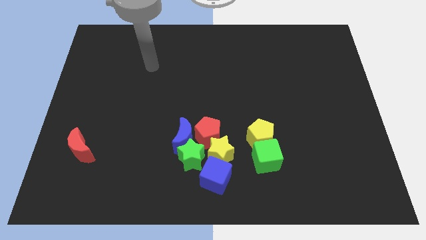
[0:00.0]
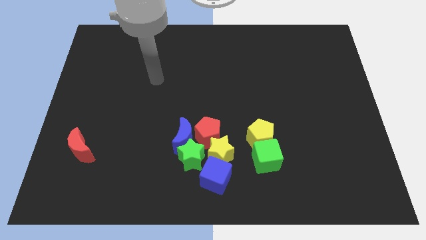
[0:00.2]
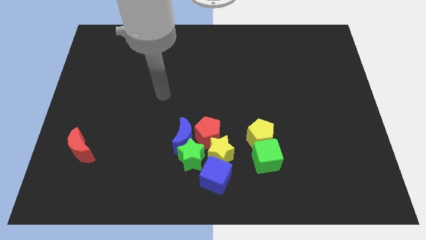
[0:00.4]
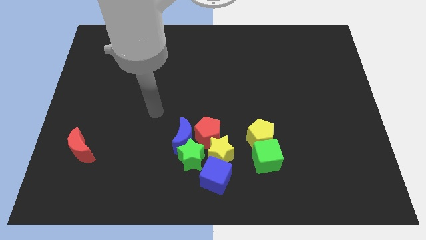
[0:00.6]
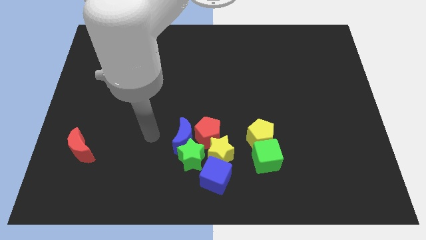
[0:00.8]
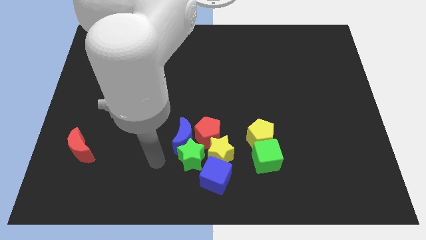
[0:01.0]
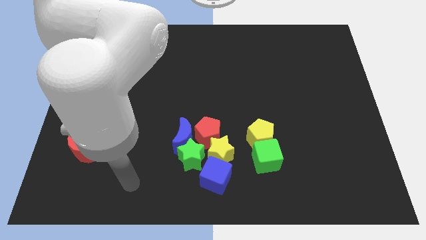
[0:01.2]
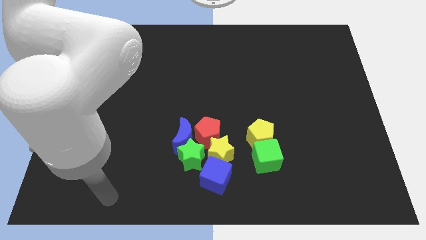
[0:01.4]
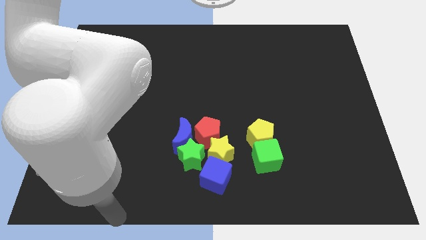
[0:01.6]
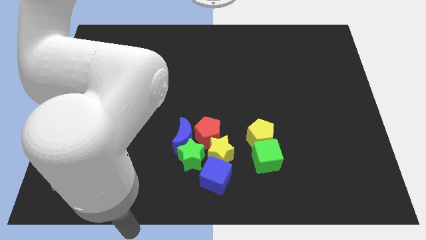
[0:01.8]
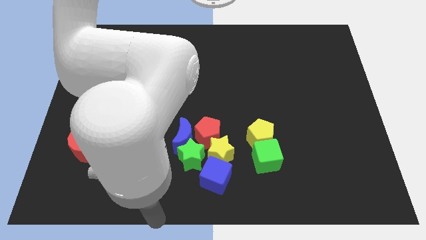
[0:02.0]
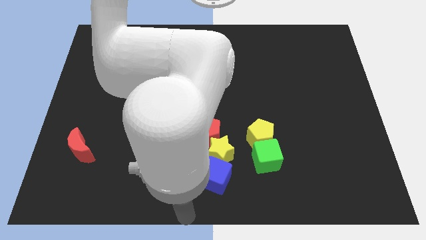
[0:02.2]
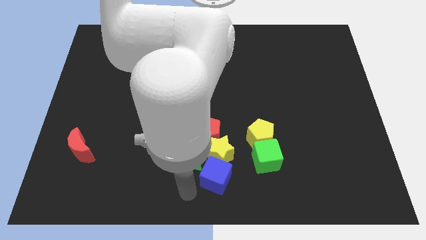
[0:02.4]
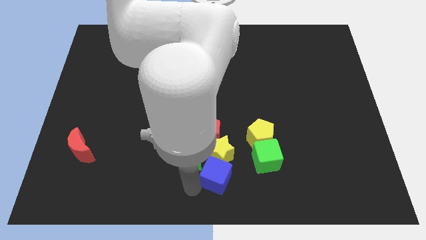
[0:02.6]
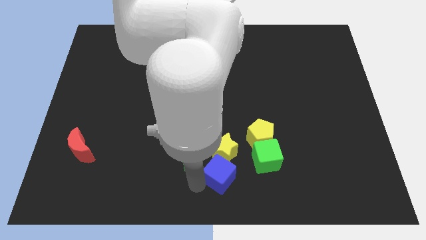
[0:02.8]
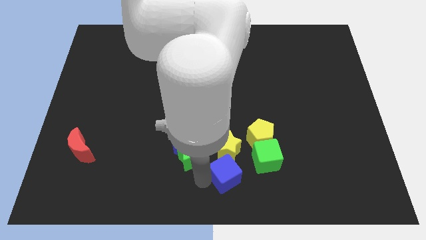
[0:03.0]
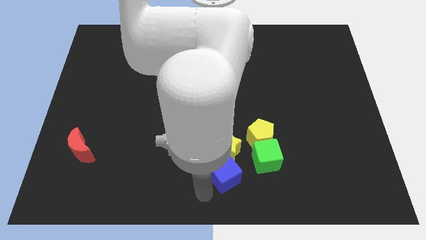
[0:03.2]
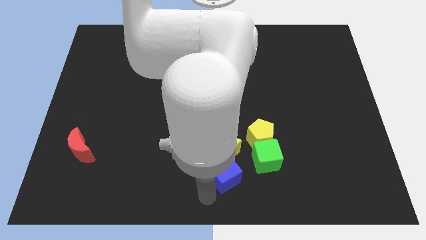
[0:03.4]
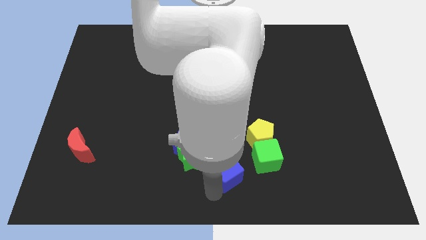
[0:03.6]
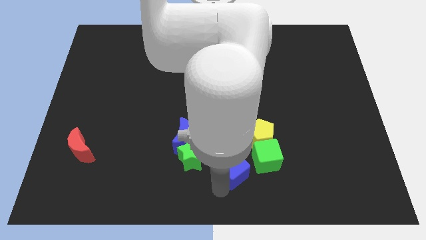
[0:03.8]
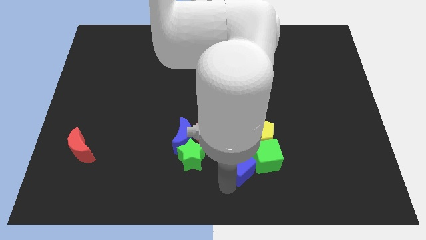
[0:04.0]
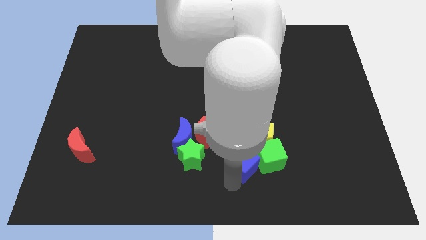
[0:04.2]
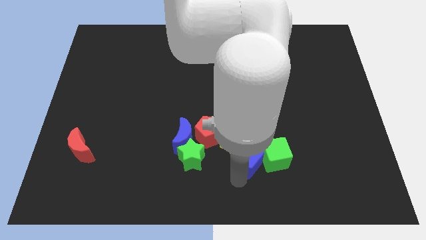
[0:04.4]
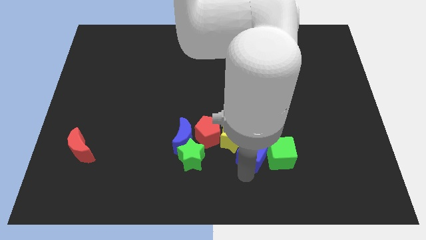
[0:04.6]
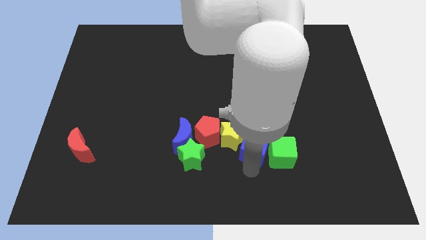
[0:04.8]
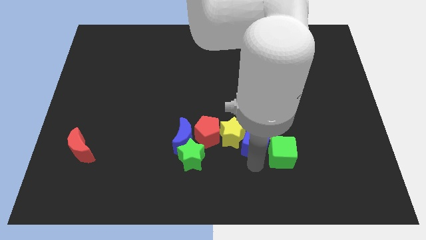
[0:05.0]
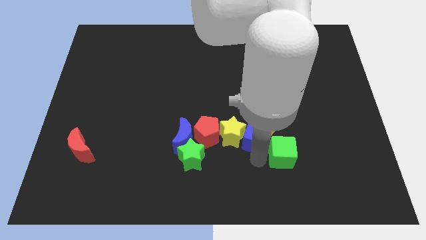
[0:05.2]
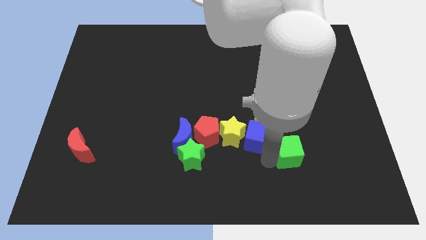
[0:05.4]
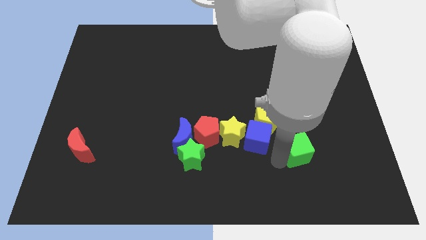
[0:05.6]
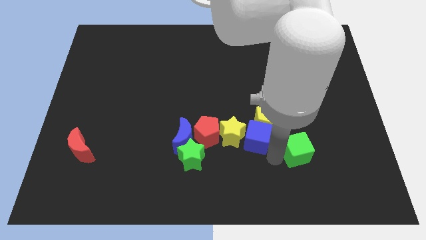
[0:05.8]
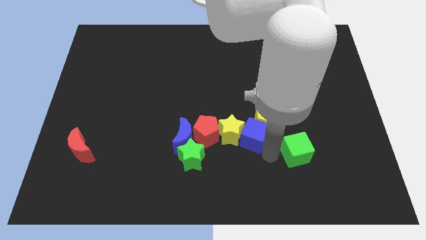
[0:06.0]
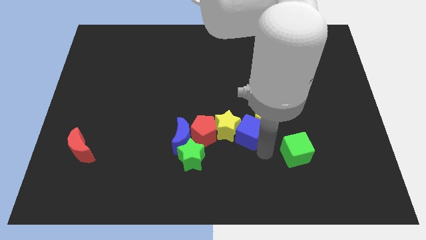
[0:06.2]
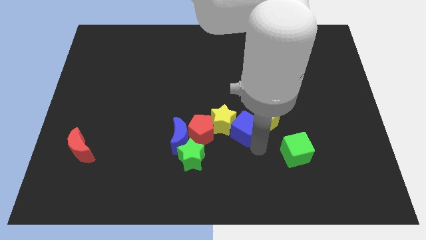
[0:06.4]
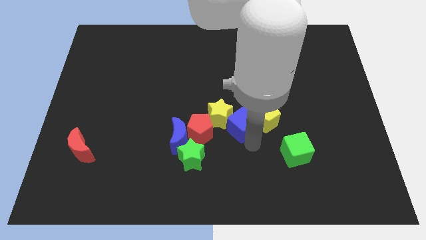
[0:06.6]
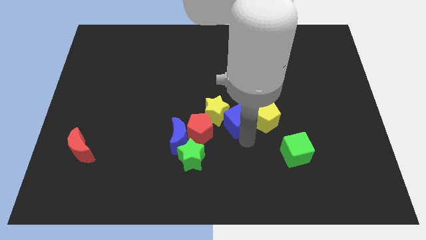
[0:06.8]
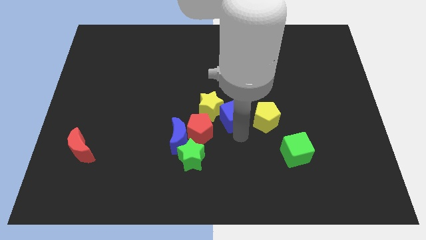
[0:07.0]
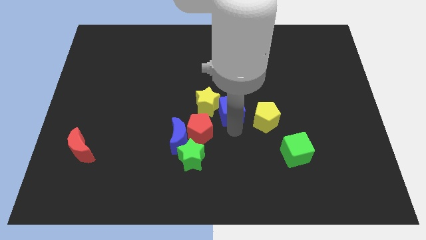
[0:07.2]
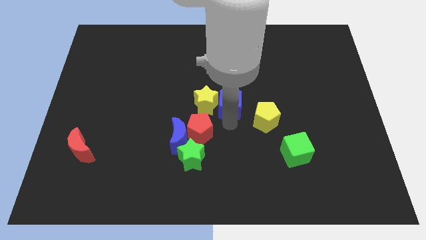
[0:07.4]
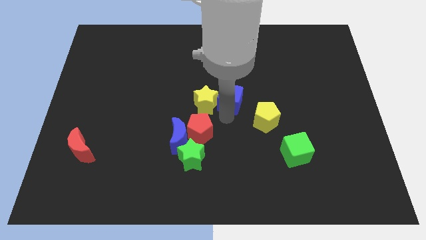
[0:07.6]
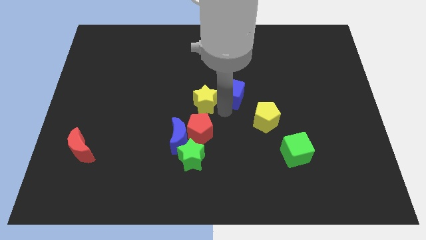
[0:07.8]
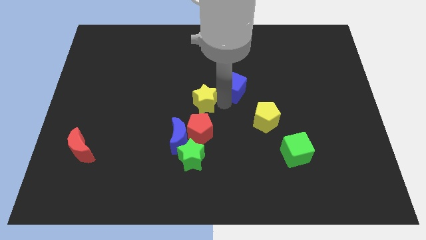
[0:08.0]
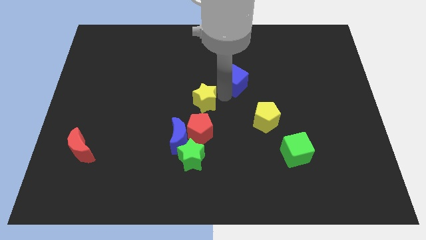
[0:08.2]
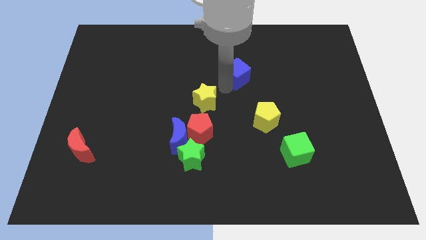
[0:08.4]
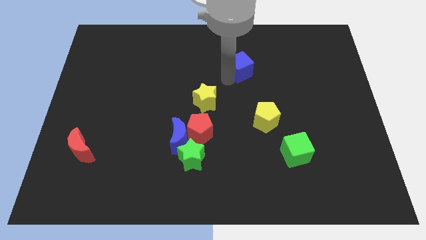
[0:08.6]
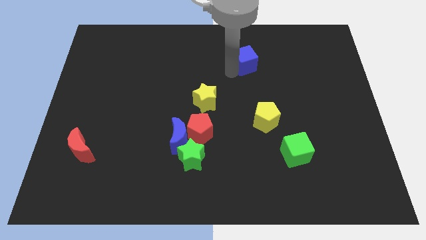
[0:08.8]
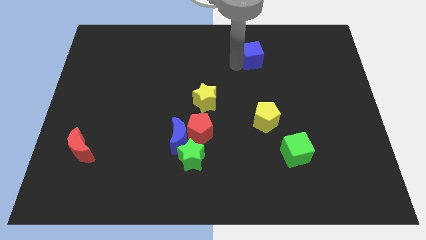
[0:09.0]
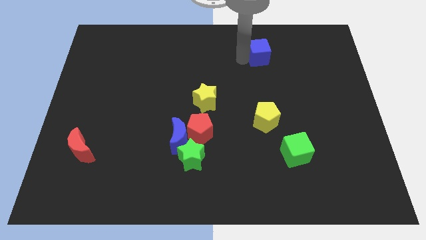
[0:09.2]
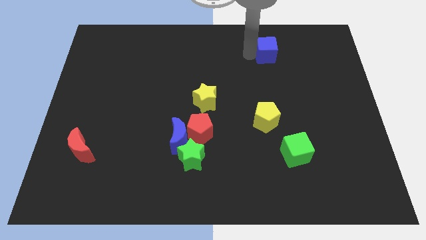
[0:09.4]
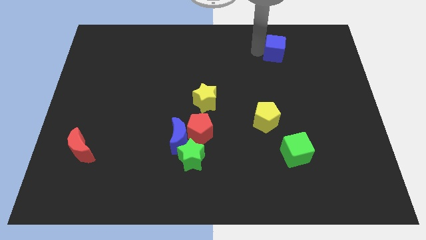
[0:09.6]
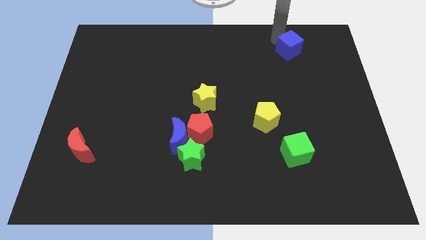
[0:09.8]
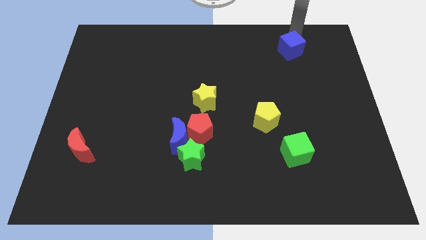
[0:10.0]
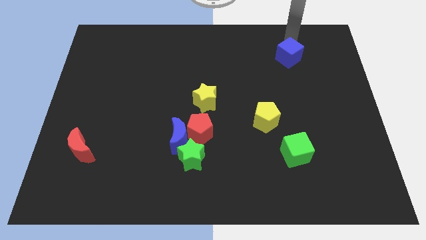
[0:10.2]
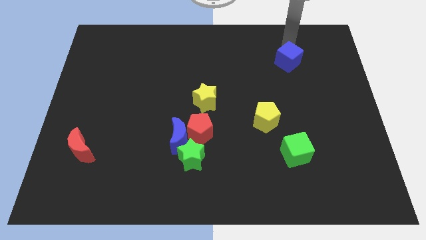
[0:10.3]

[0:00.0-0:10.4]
slide the blue cube up and then right

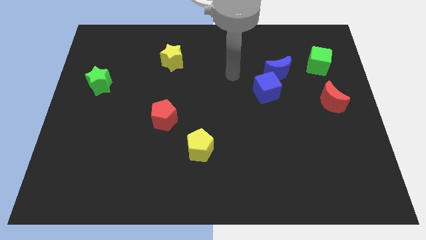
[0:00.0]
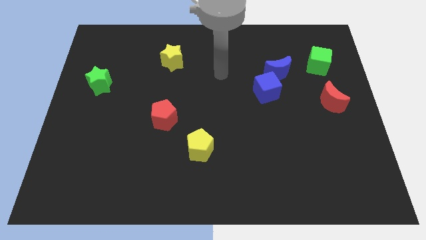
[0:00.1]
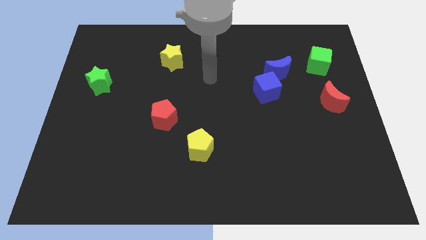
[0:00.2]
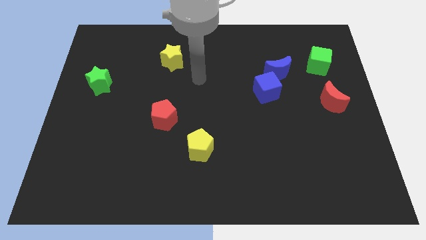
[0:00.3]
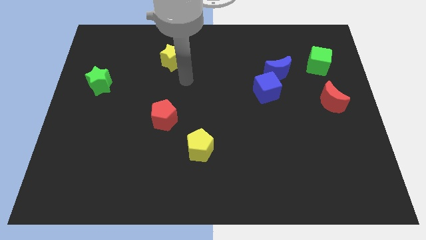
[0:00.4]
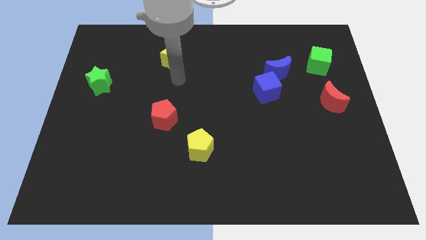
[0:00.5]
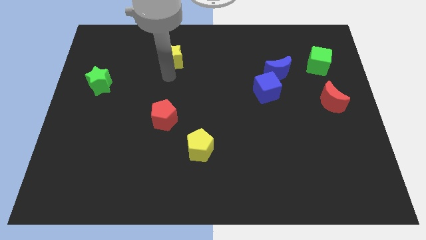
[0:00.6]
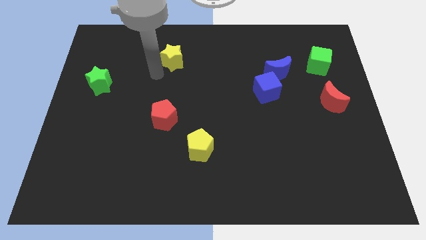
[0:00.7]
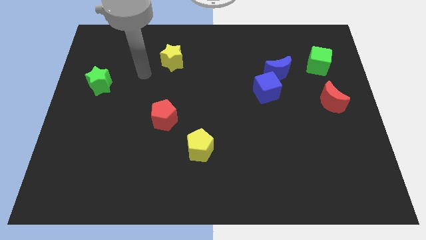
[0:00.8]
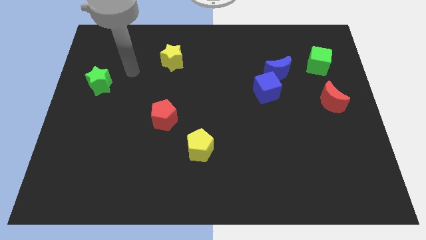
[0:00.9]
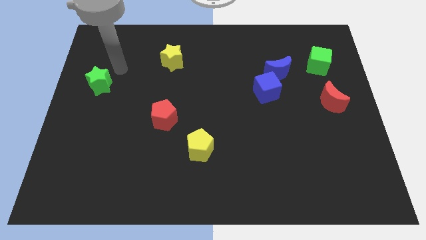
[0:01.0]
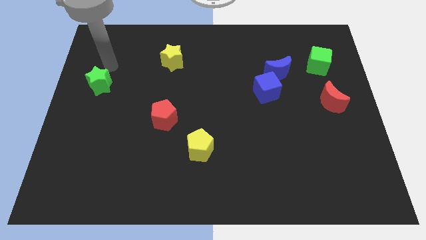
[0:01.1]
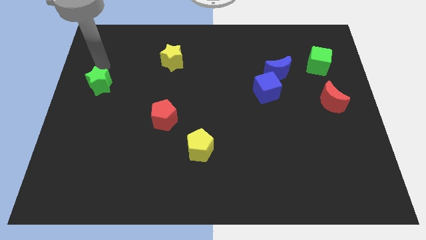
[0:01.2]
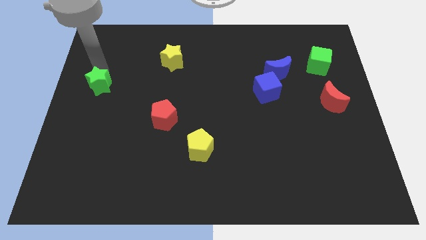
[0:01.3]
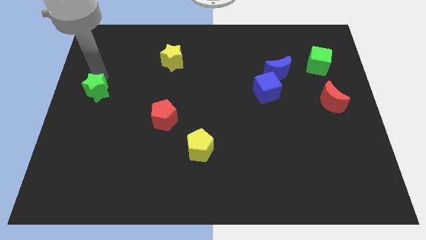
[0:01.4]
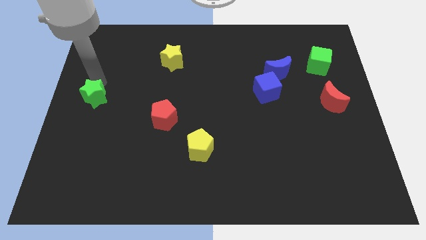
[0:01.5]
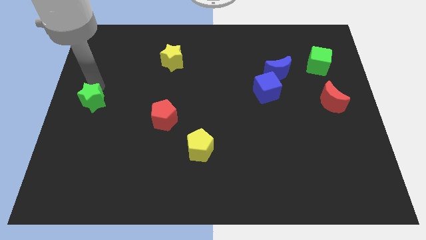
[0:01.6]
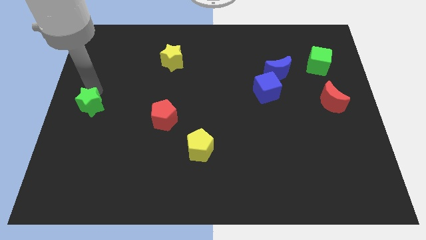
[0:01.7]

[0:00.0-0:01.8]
move the green star down a little

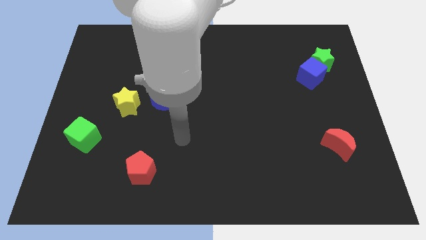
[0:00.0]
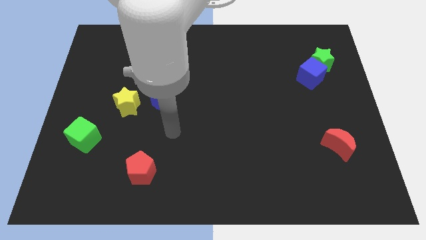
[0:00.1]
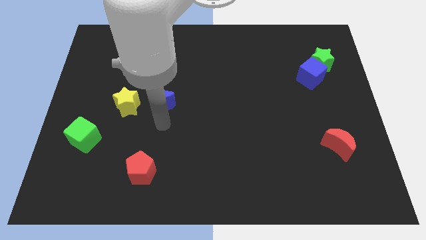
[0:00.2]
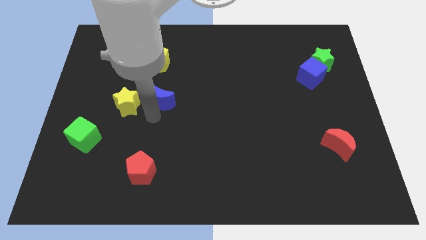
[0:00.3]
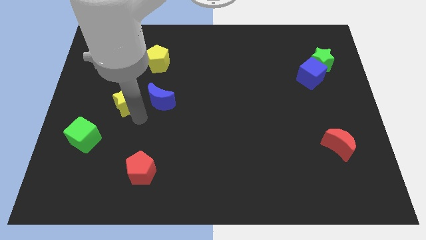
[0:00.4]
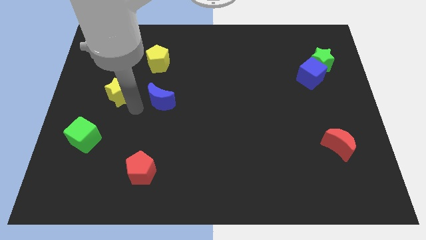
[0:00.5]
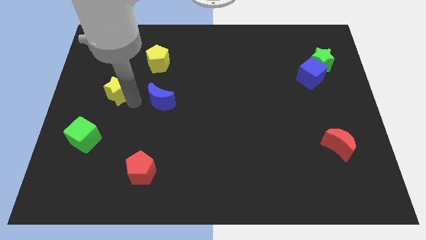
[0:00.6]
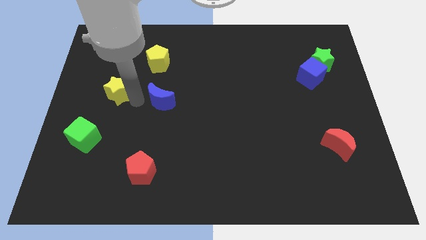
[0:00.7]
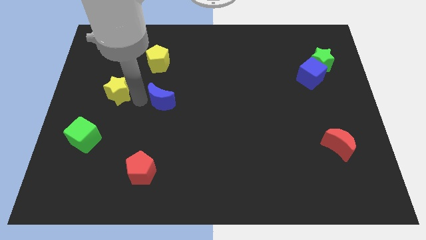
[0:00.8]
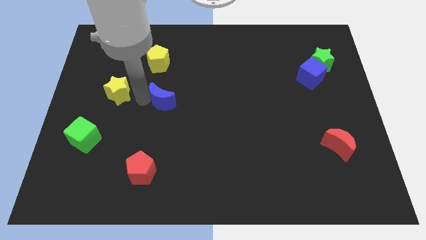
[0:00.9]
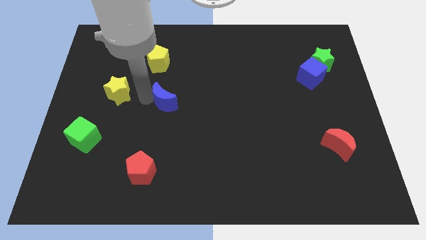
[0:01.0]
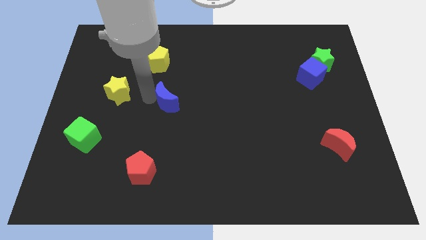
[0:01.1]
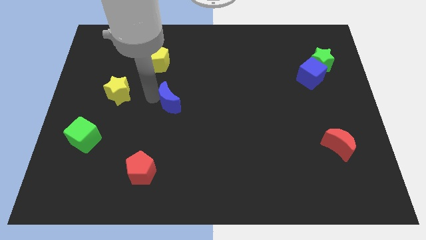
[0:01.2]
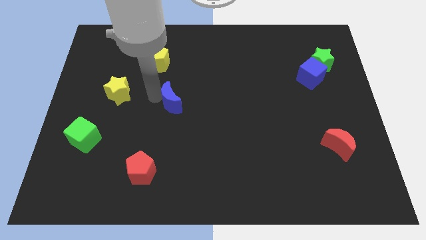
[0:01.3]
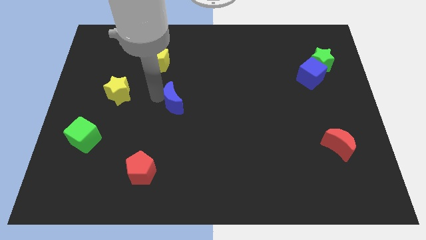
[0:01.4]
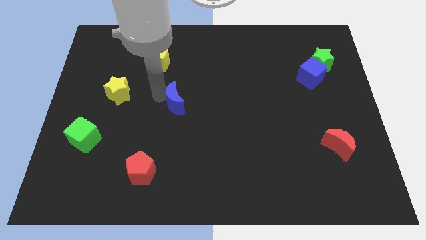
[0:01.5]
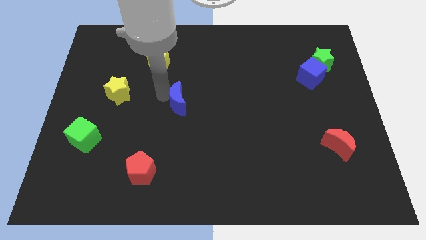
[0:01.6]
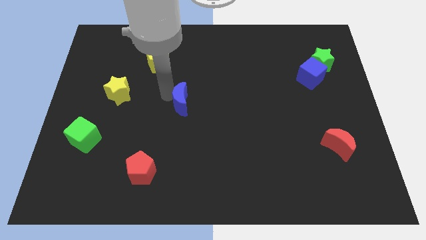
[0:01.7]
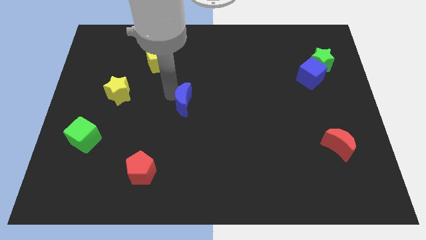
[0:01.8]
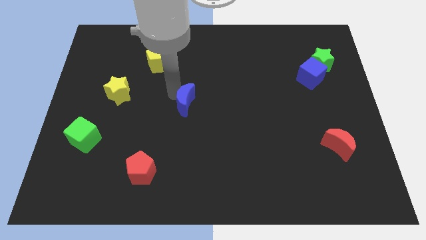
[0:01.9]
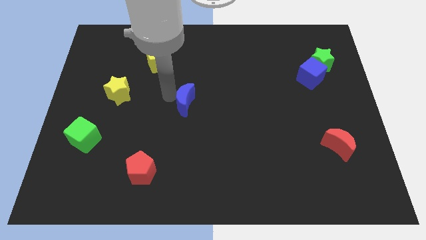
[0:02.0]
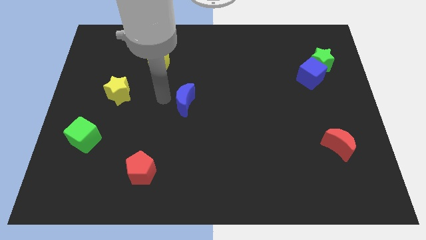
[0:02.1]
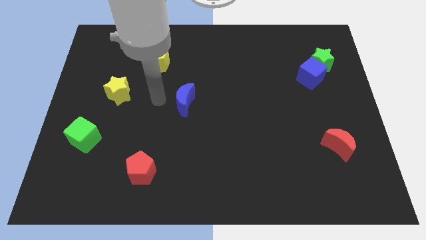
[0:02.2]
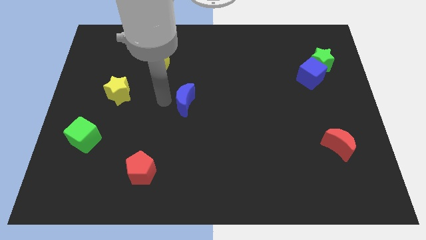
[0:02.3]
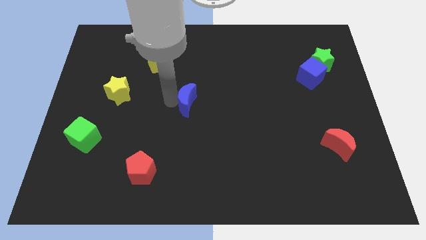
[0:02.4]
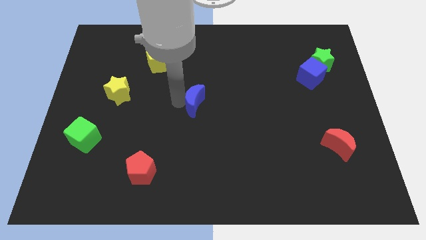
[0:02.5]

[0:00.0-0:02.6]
move the blue moon a little bit to the right
